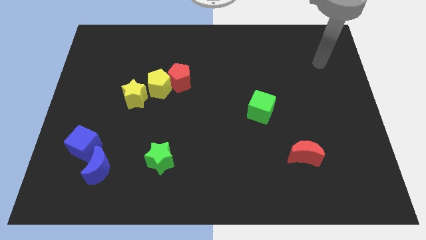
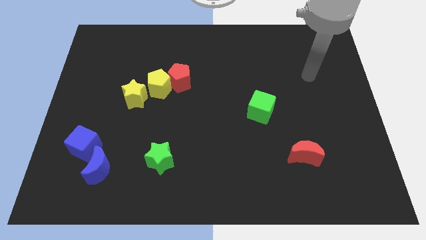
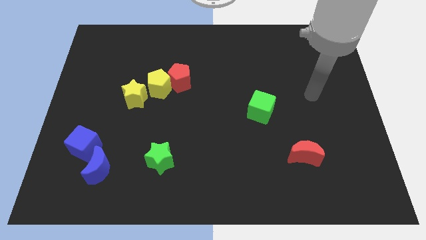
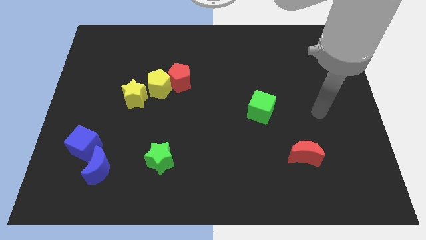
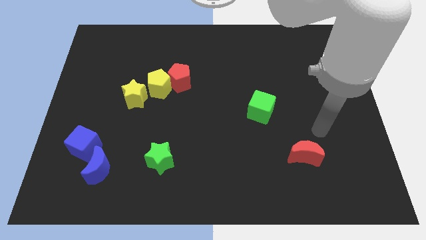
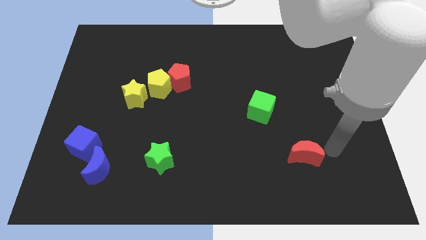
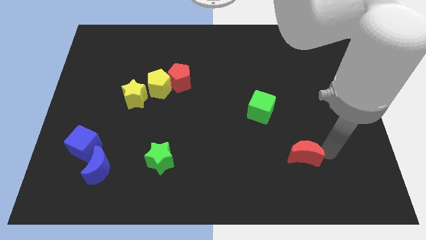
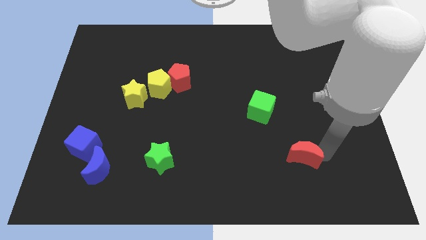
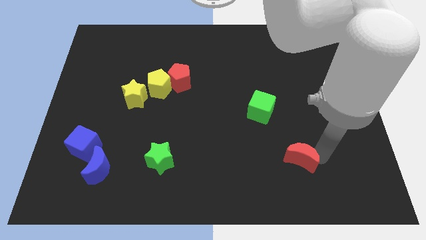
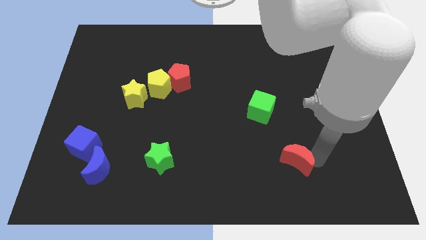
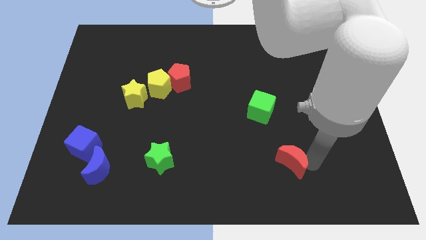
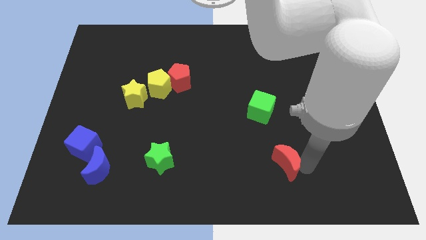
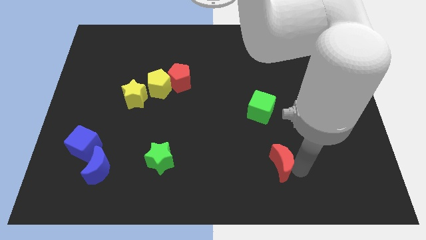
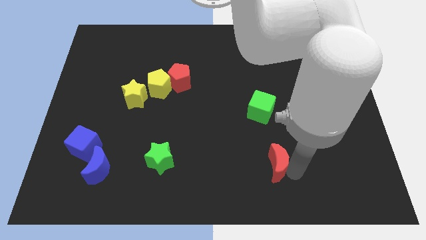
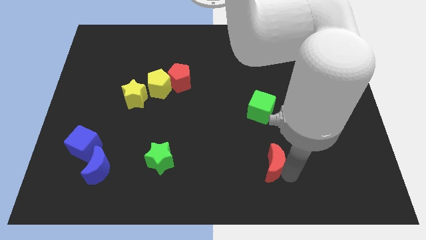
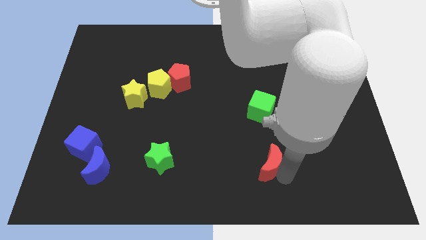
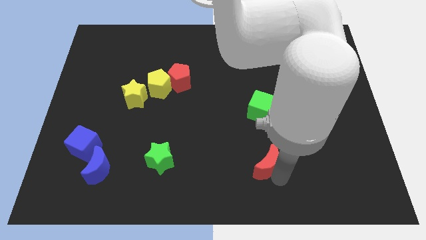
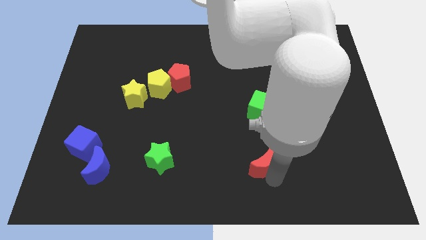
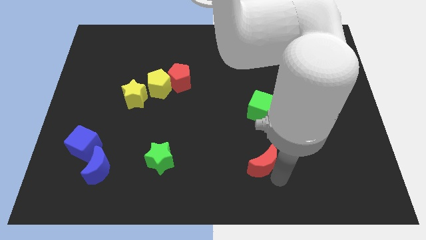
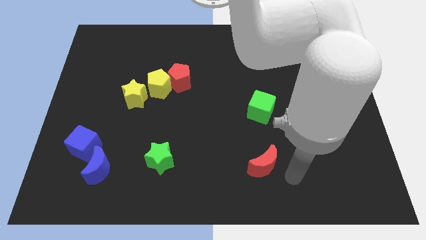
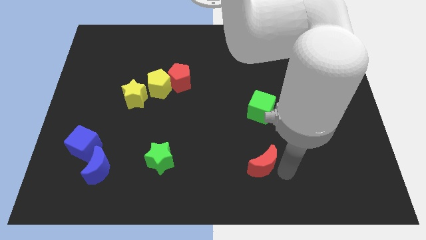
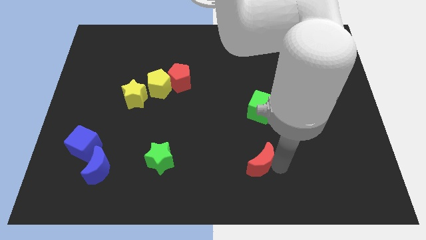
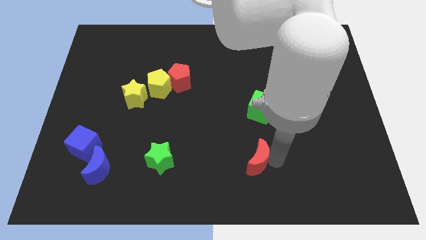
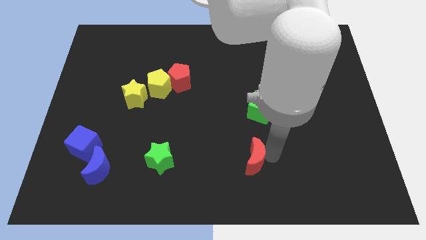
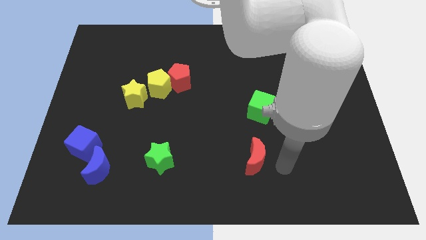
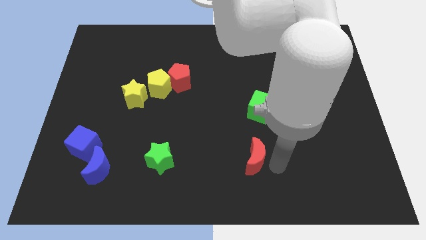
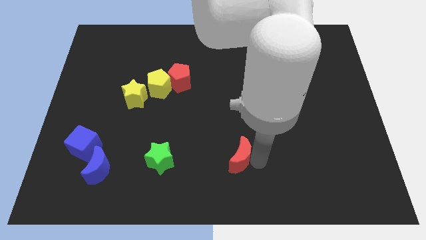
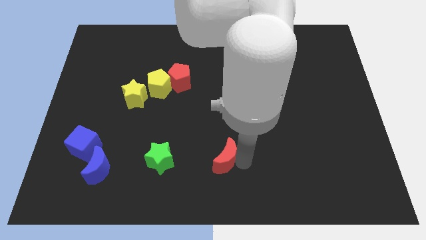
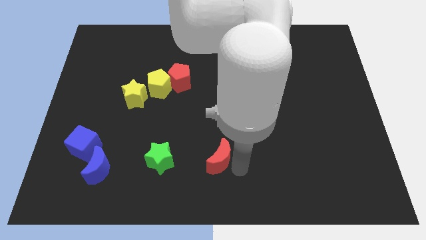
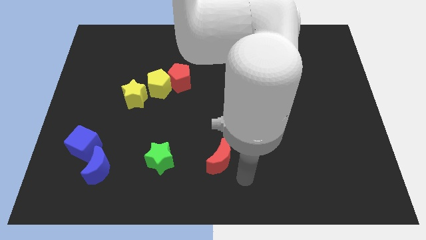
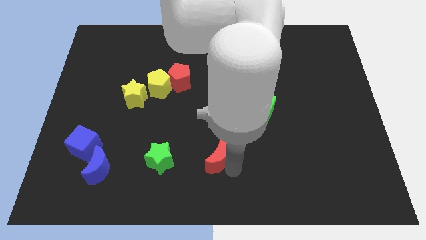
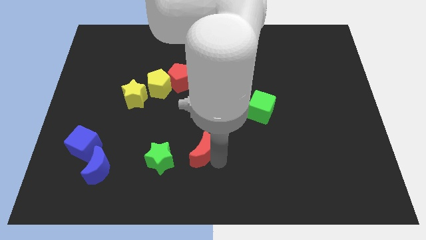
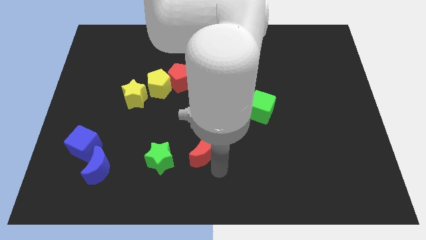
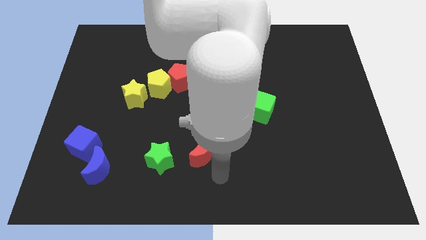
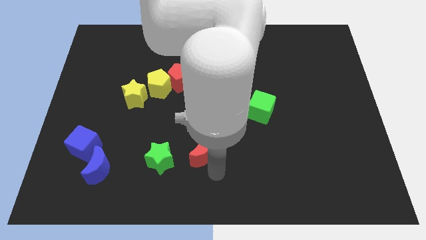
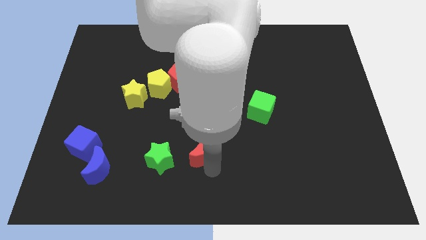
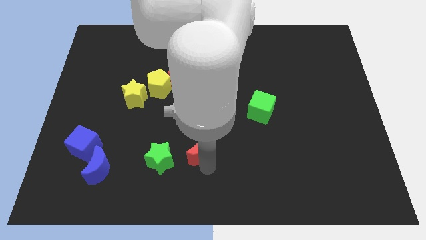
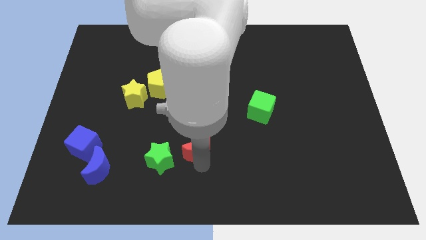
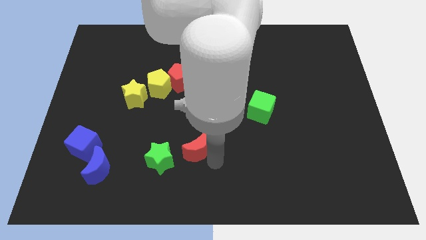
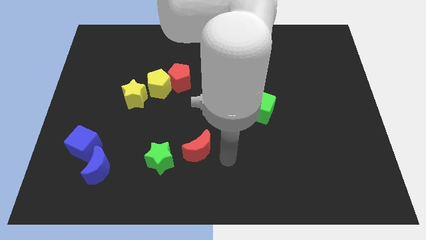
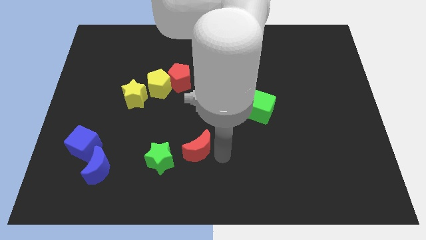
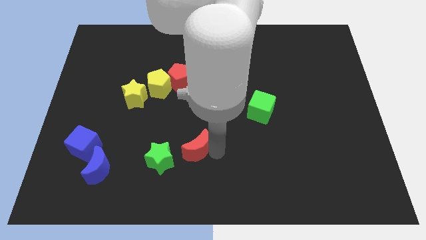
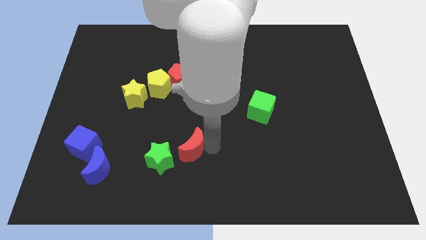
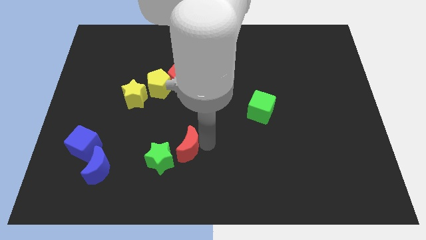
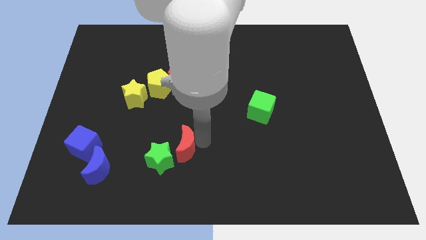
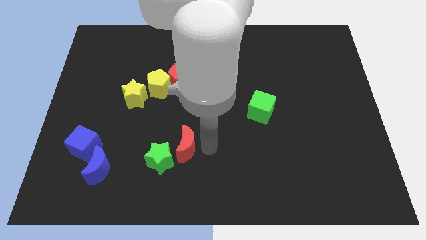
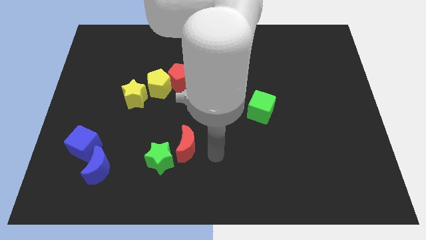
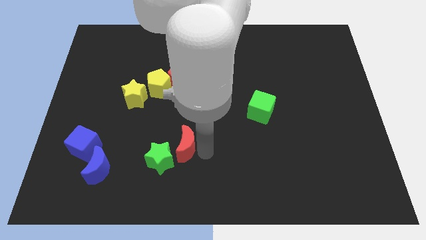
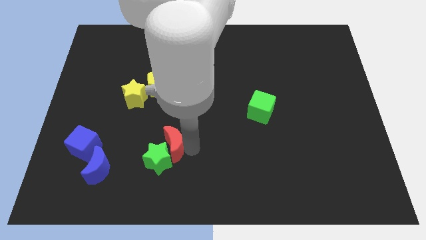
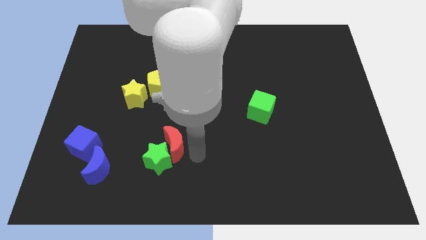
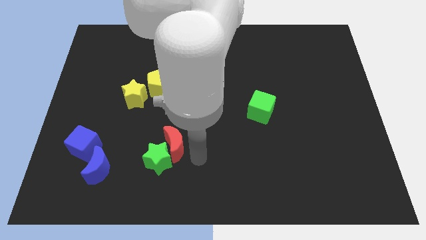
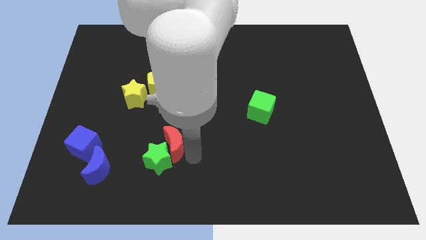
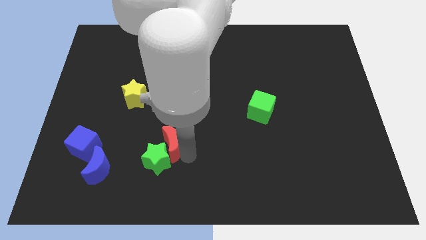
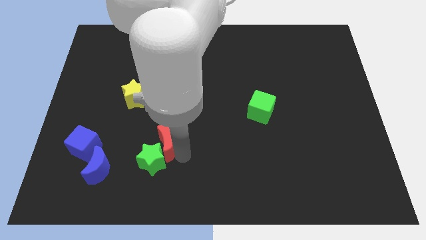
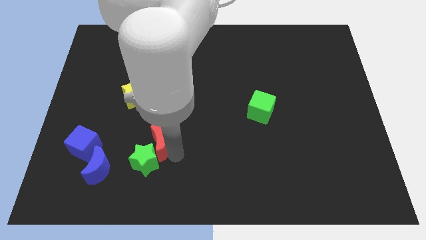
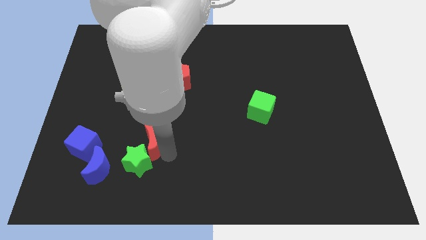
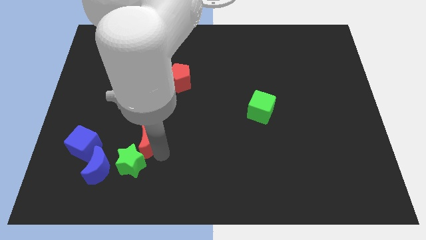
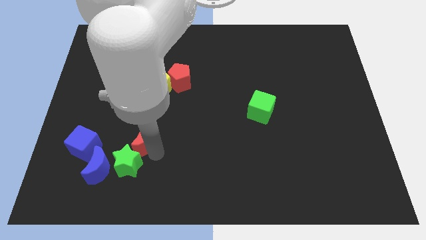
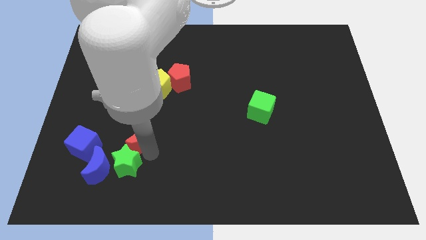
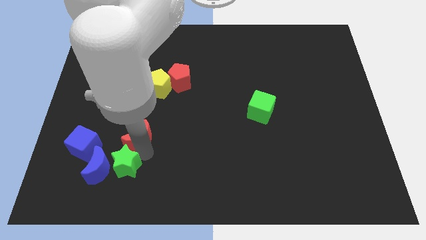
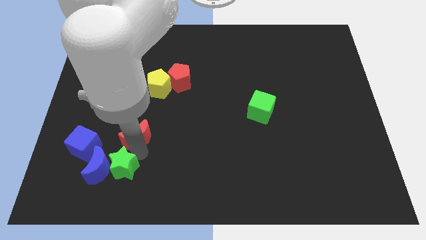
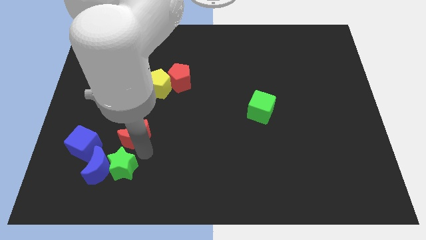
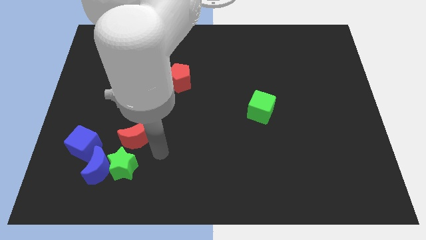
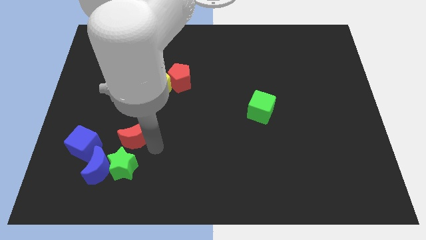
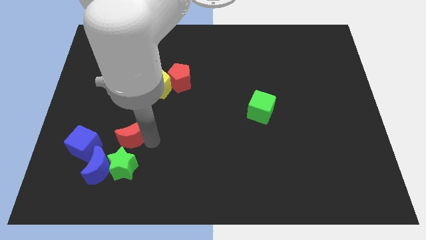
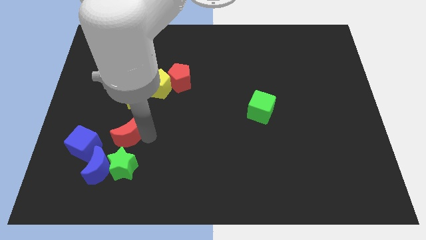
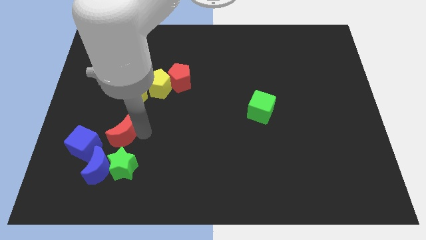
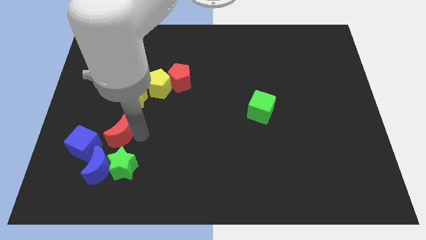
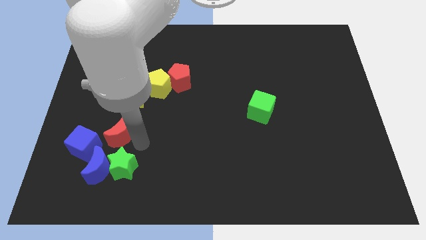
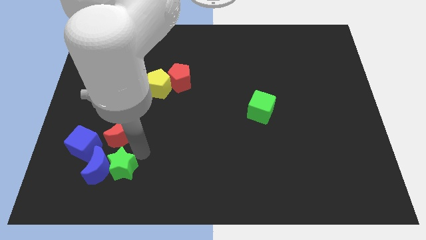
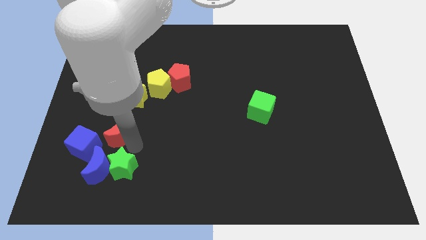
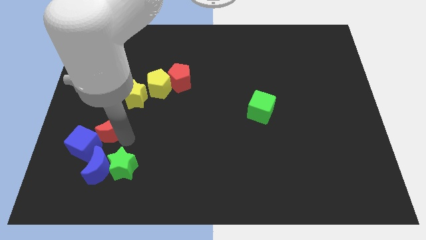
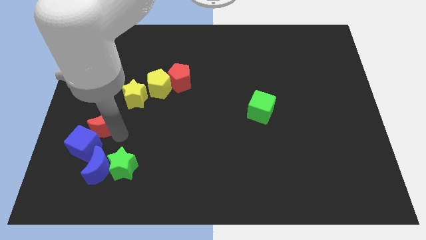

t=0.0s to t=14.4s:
slide the red moon to the top of the blue cube

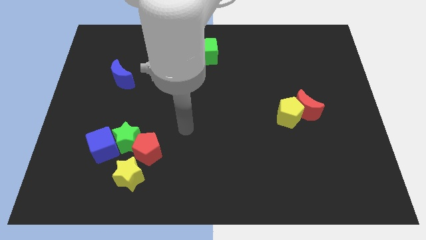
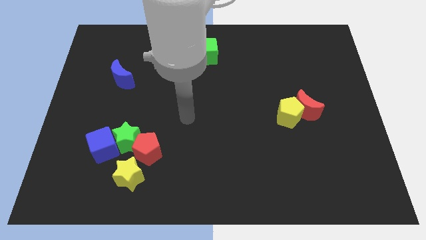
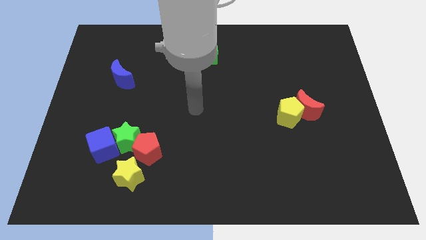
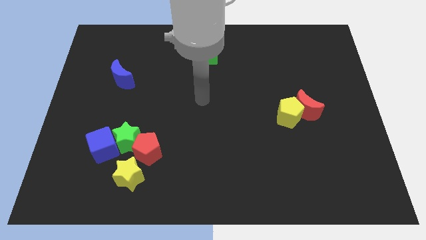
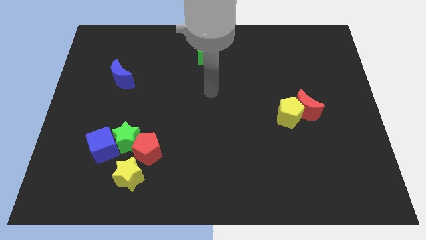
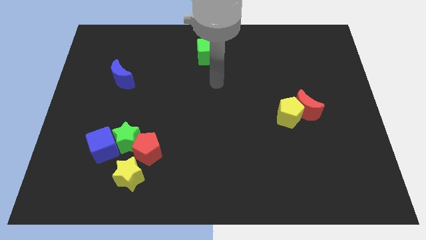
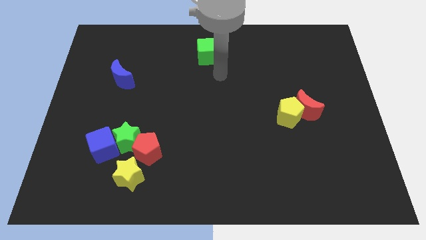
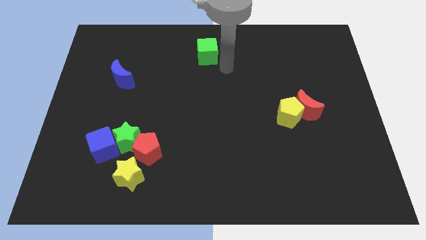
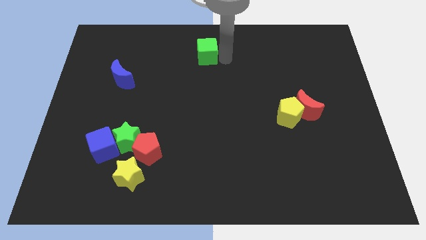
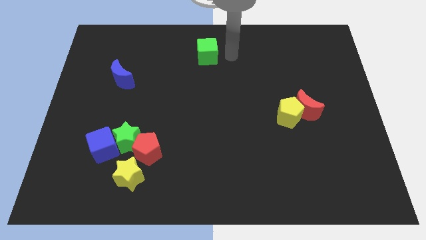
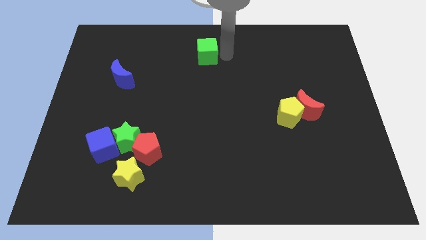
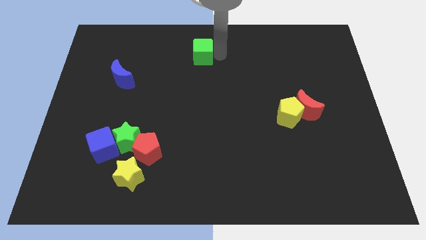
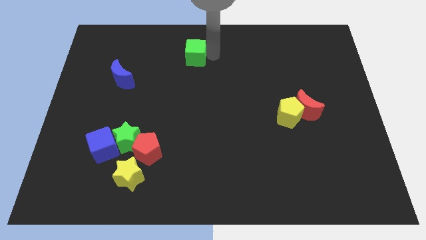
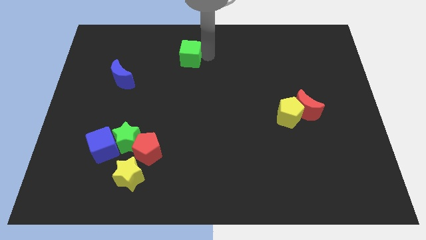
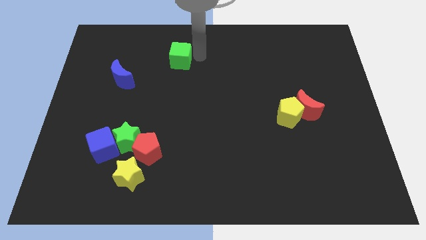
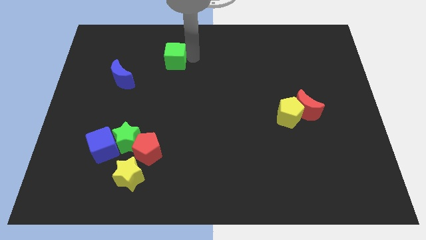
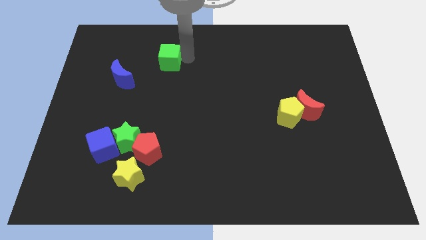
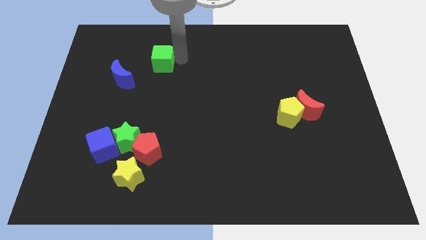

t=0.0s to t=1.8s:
slide the green cube diagonally up and to the right of the blue moon
